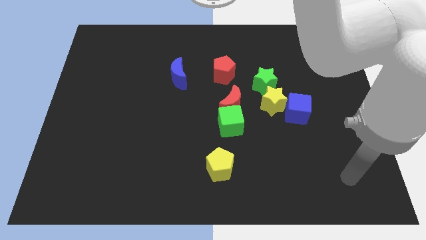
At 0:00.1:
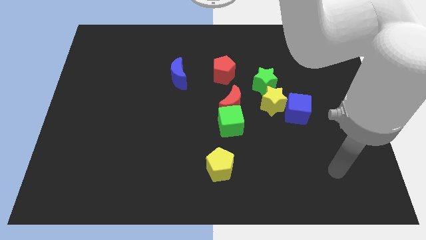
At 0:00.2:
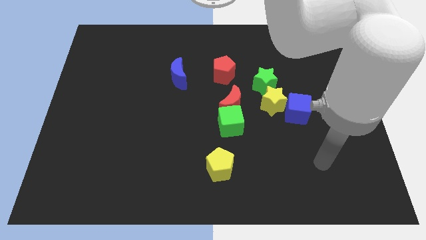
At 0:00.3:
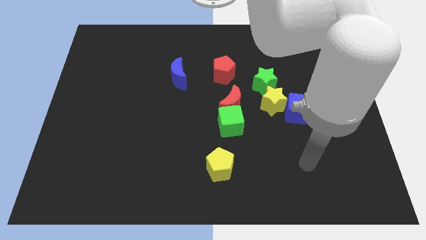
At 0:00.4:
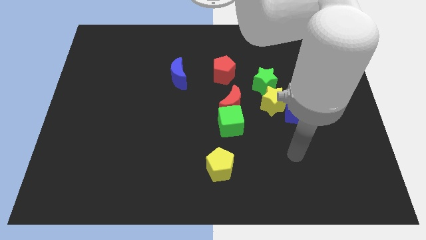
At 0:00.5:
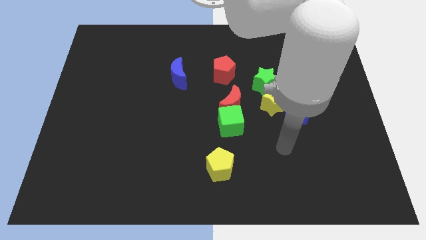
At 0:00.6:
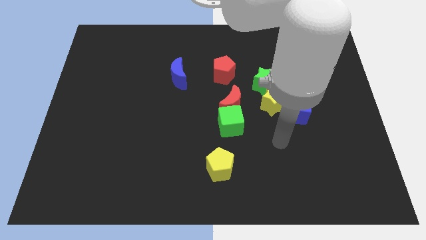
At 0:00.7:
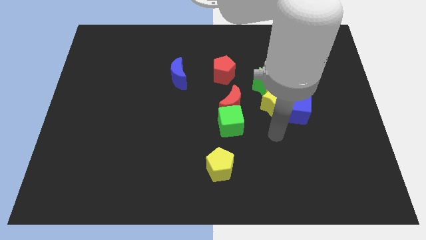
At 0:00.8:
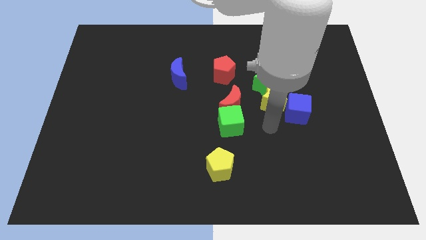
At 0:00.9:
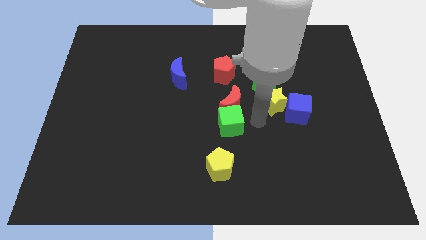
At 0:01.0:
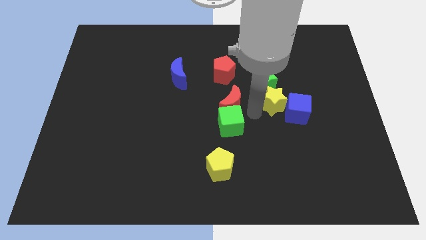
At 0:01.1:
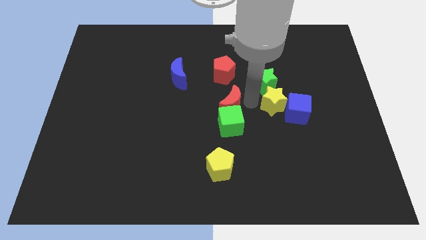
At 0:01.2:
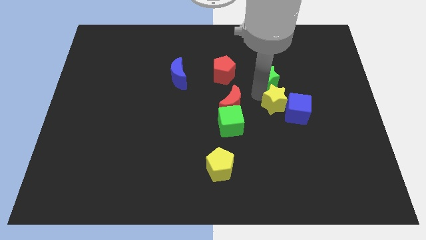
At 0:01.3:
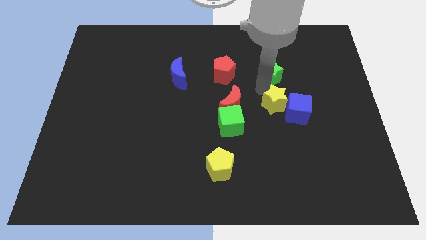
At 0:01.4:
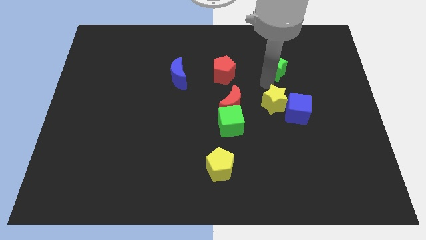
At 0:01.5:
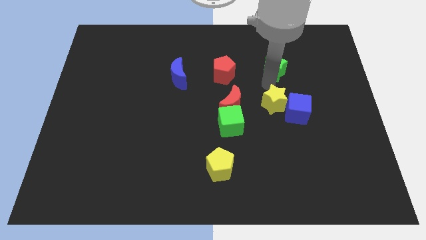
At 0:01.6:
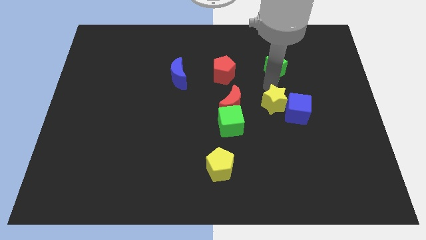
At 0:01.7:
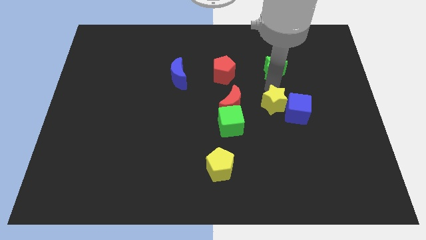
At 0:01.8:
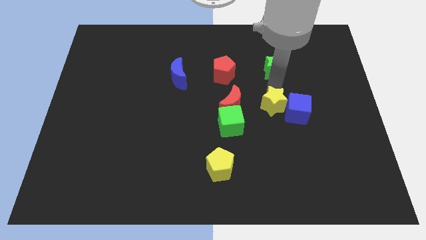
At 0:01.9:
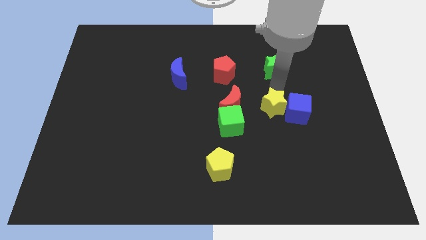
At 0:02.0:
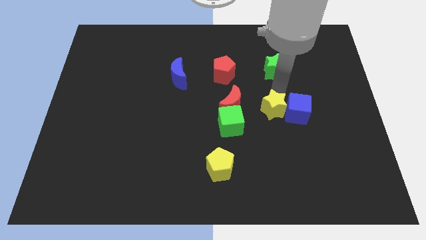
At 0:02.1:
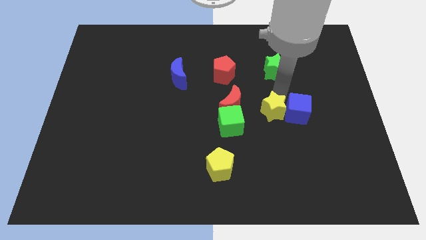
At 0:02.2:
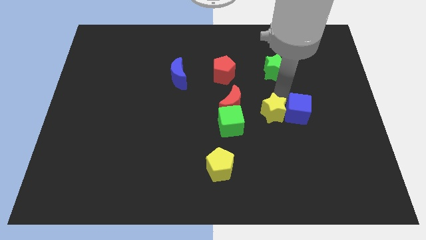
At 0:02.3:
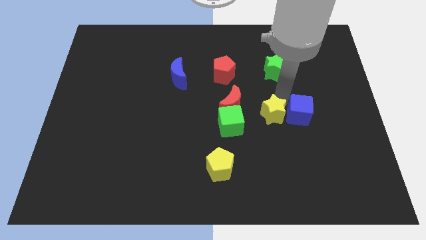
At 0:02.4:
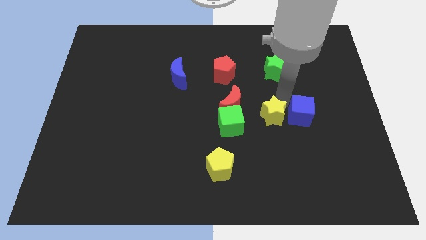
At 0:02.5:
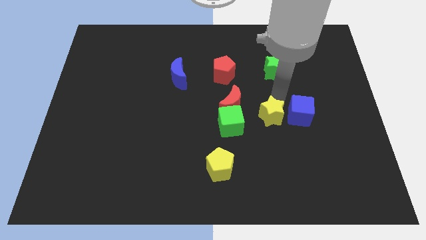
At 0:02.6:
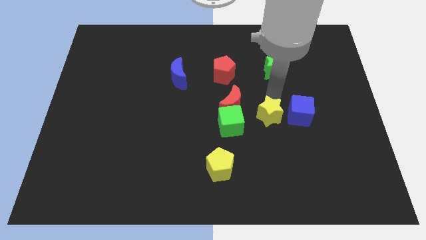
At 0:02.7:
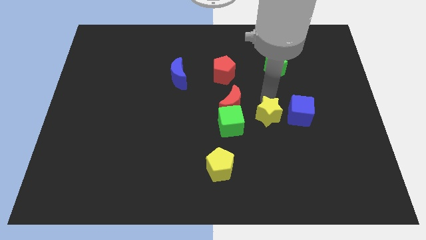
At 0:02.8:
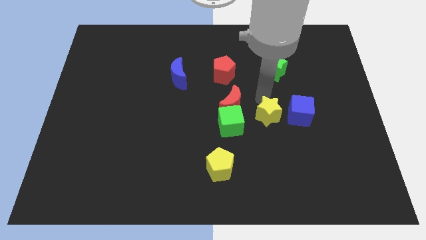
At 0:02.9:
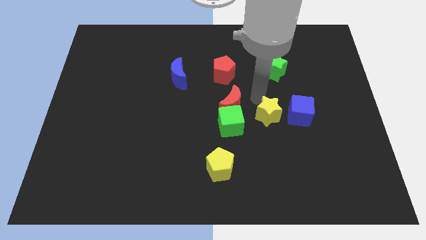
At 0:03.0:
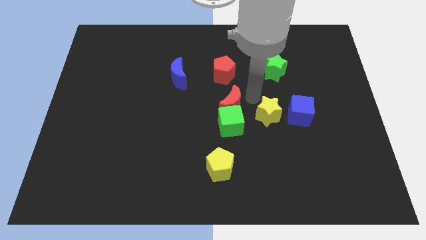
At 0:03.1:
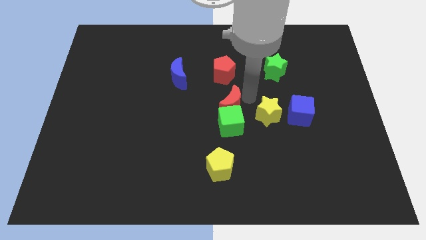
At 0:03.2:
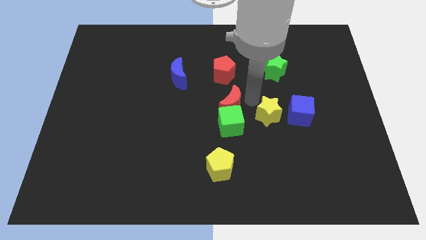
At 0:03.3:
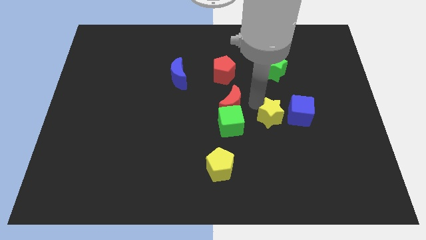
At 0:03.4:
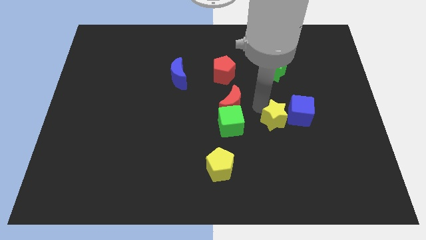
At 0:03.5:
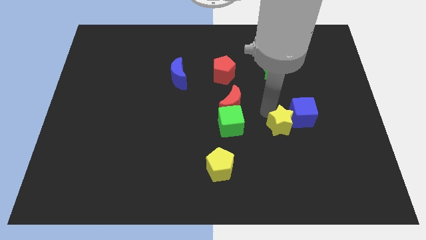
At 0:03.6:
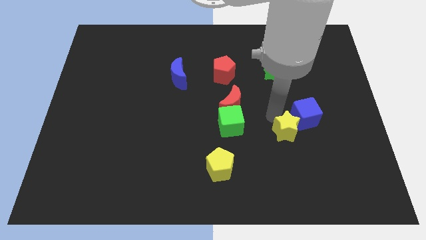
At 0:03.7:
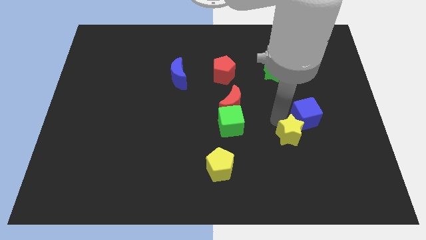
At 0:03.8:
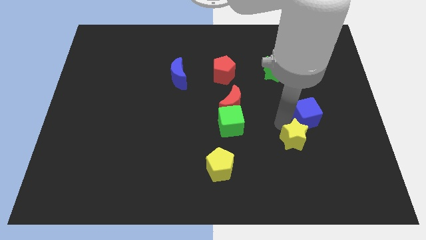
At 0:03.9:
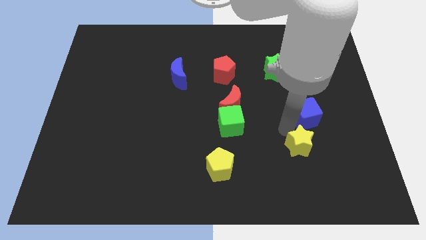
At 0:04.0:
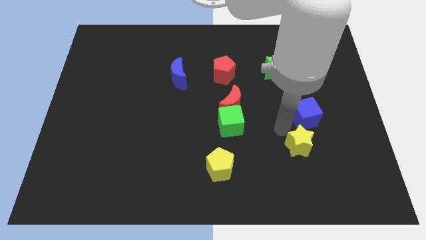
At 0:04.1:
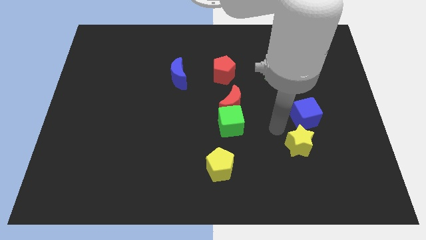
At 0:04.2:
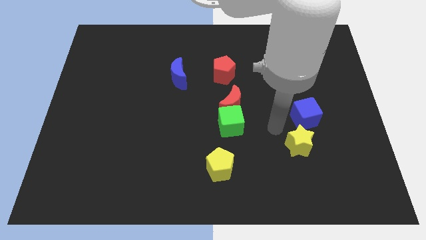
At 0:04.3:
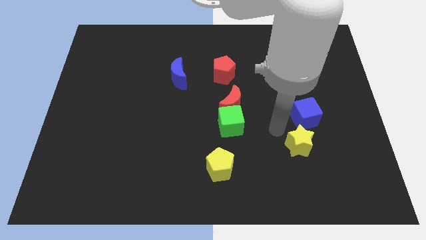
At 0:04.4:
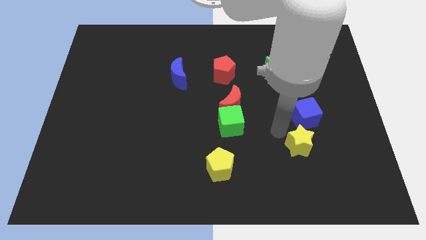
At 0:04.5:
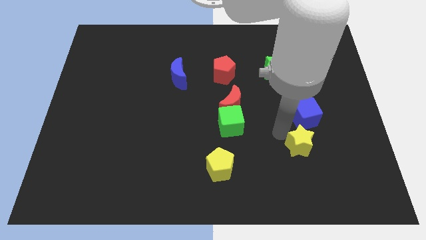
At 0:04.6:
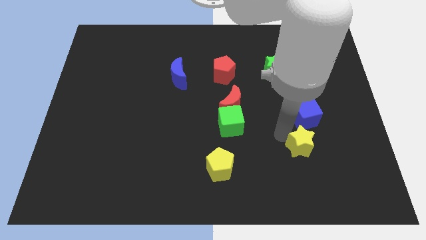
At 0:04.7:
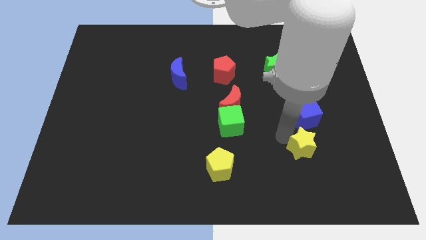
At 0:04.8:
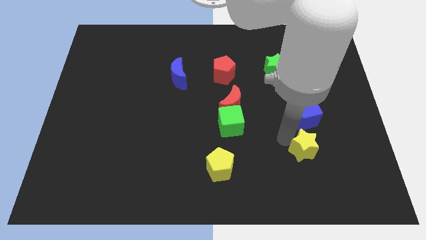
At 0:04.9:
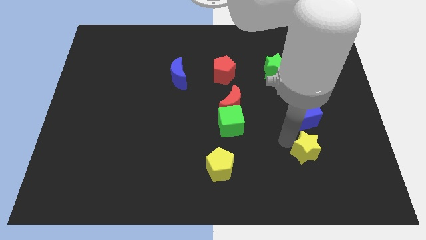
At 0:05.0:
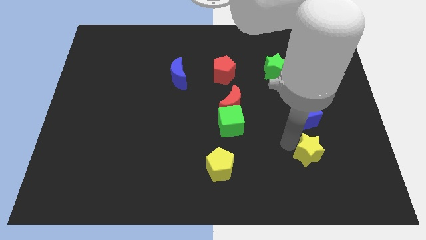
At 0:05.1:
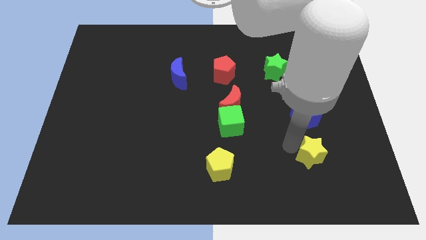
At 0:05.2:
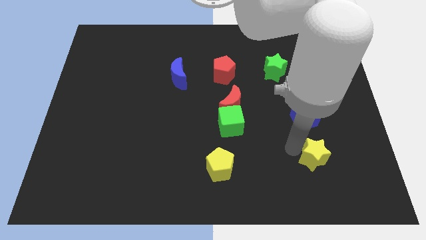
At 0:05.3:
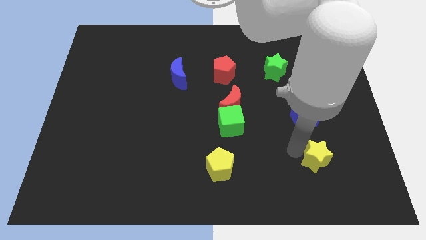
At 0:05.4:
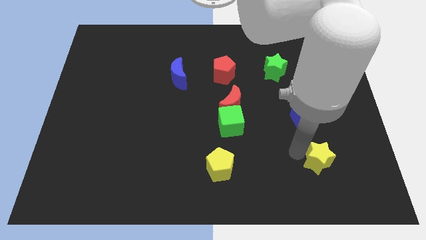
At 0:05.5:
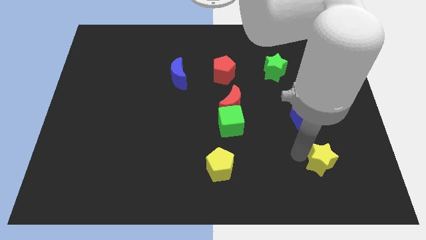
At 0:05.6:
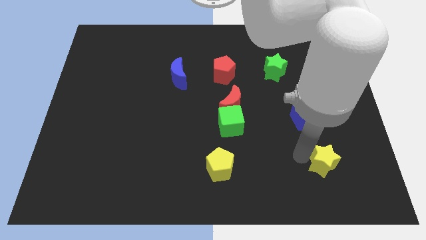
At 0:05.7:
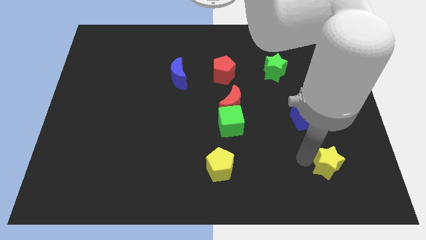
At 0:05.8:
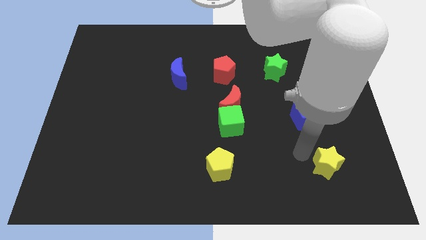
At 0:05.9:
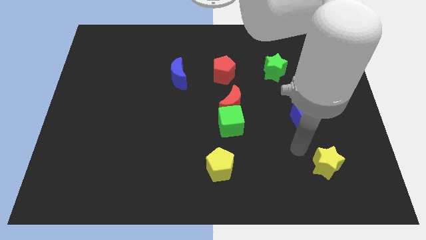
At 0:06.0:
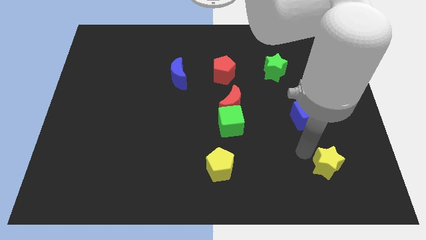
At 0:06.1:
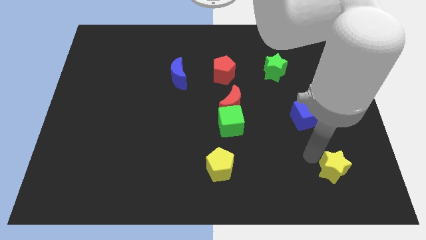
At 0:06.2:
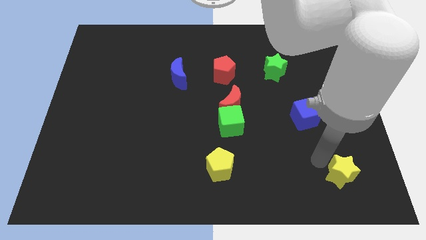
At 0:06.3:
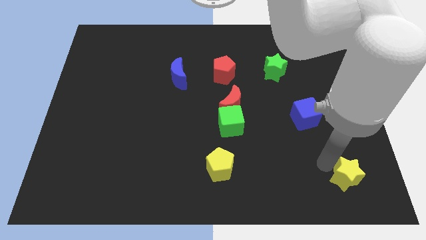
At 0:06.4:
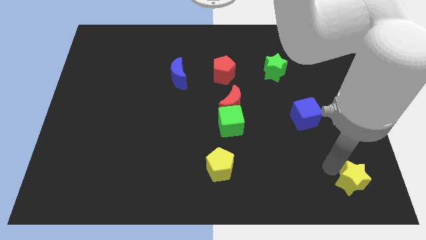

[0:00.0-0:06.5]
move the yellow star to the bottom right of the board
